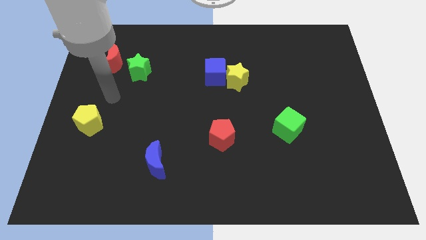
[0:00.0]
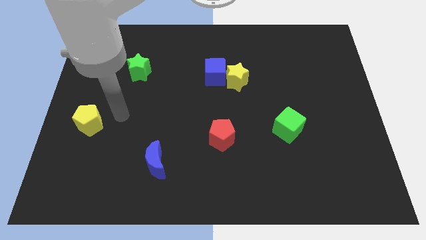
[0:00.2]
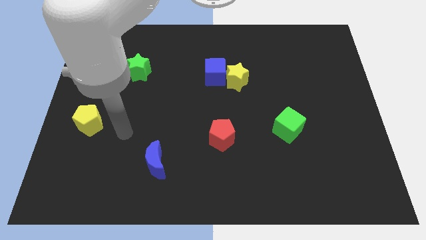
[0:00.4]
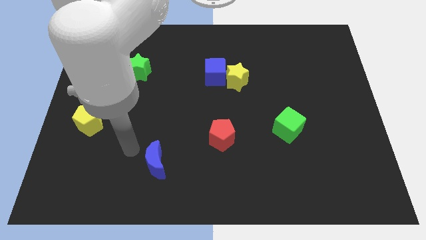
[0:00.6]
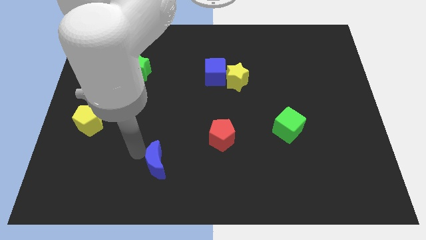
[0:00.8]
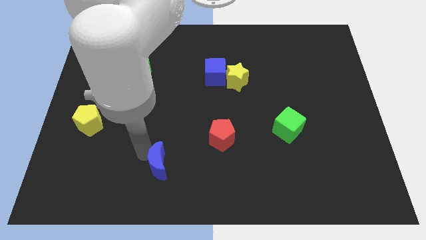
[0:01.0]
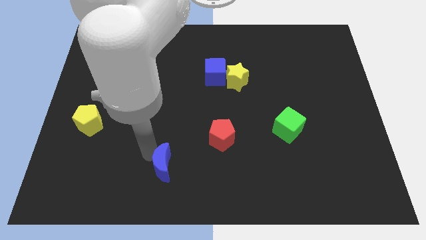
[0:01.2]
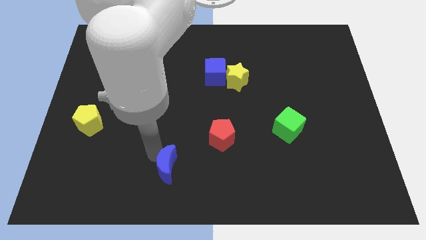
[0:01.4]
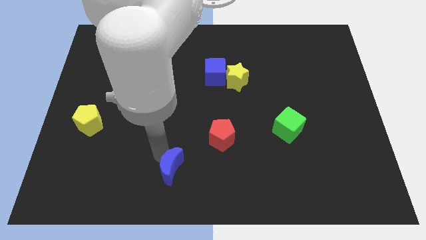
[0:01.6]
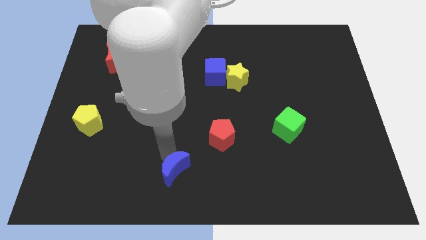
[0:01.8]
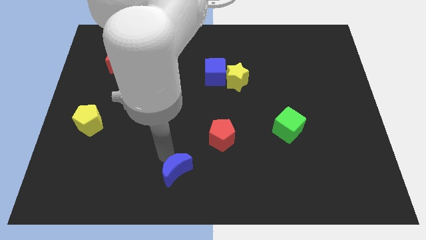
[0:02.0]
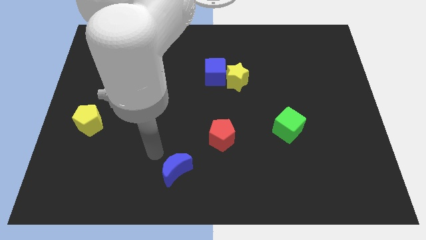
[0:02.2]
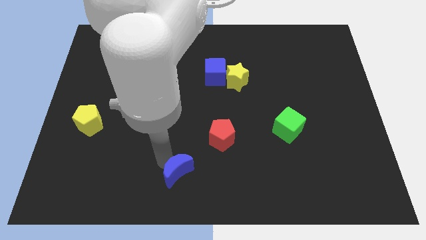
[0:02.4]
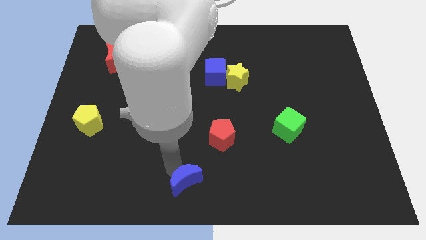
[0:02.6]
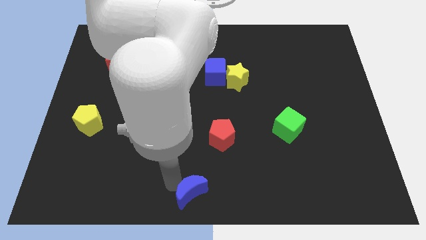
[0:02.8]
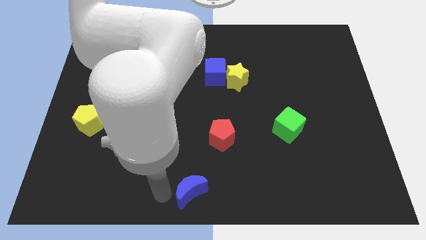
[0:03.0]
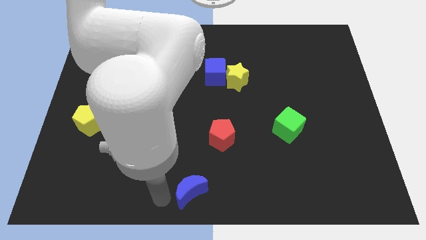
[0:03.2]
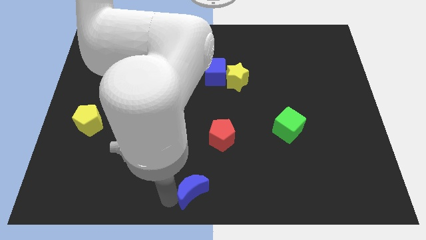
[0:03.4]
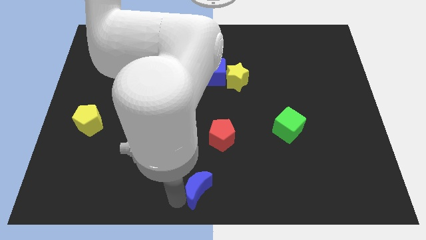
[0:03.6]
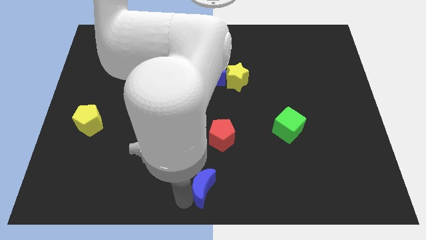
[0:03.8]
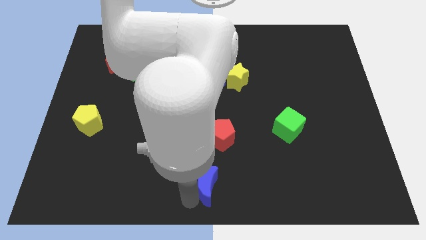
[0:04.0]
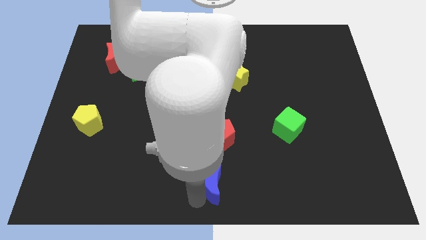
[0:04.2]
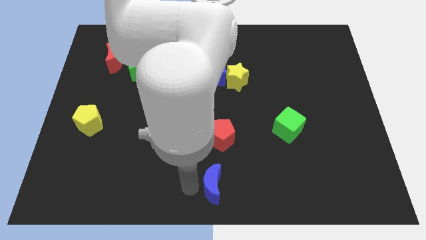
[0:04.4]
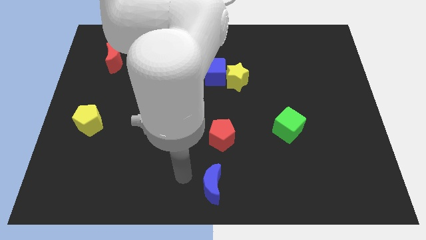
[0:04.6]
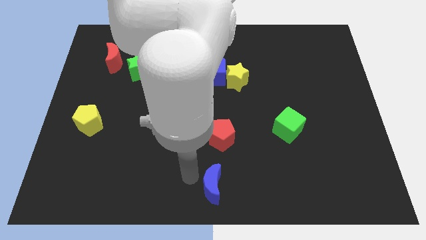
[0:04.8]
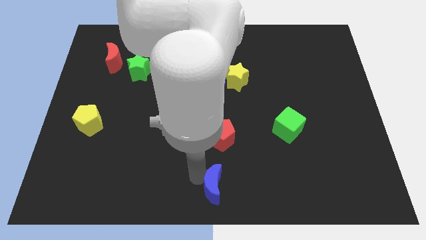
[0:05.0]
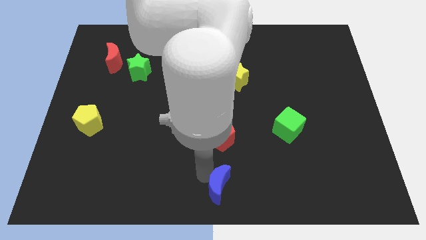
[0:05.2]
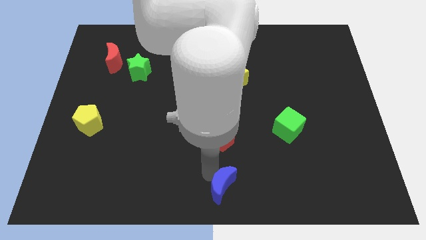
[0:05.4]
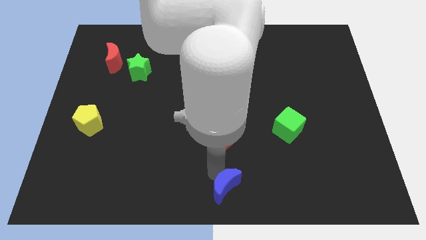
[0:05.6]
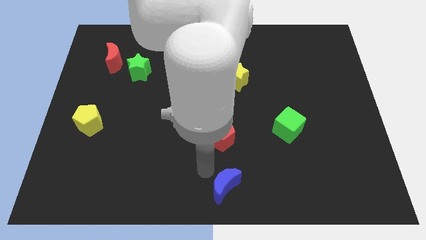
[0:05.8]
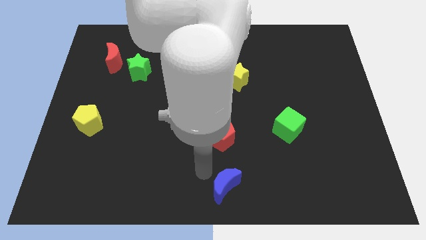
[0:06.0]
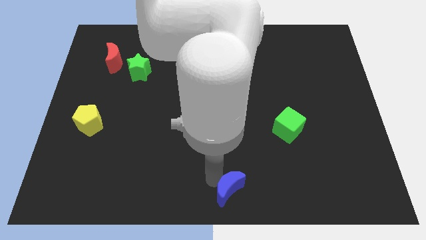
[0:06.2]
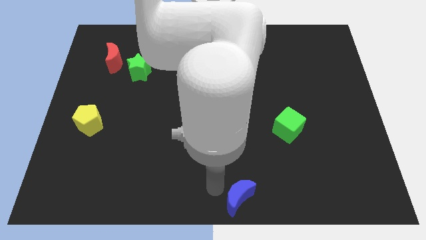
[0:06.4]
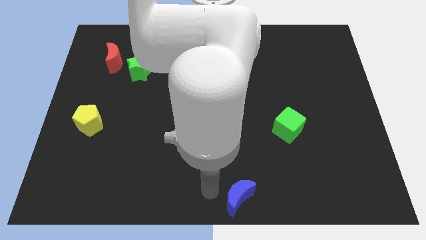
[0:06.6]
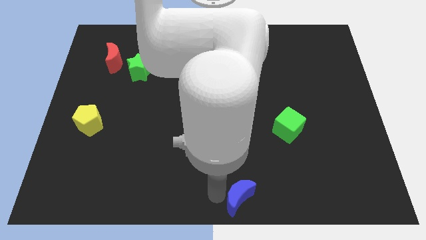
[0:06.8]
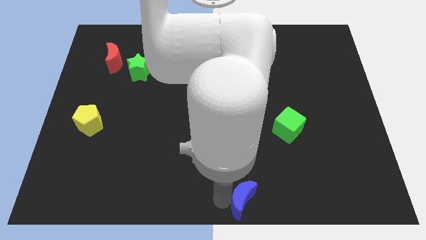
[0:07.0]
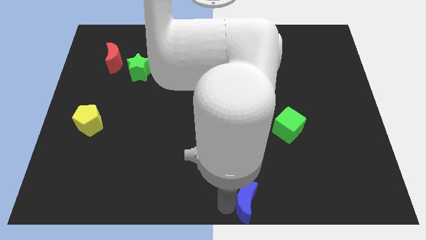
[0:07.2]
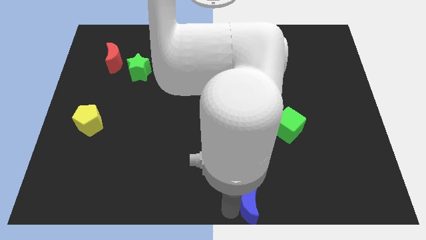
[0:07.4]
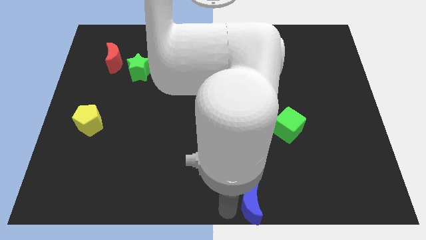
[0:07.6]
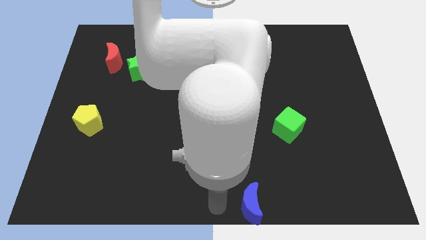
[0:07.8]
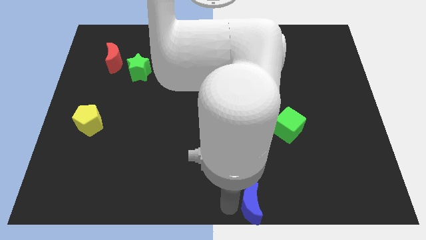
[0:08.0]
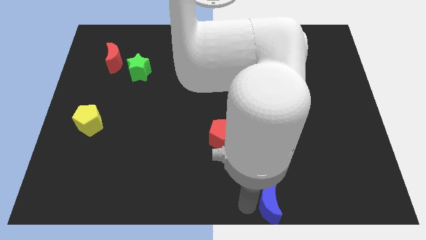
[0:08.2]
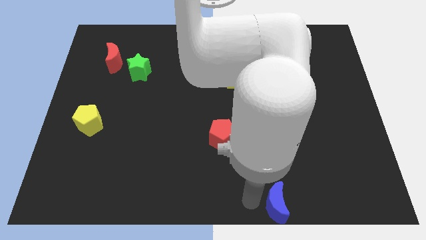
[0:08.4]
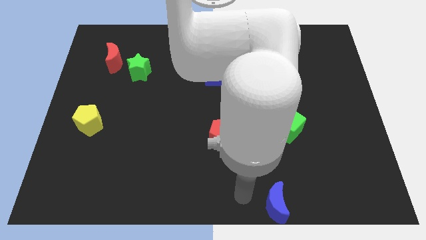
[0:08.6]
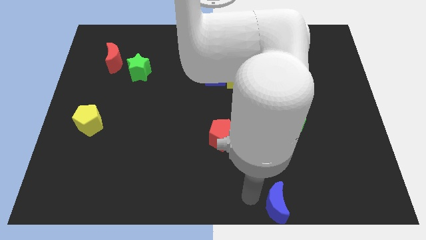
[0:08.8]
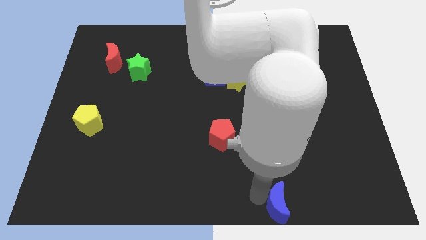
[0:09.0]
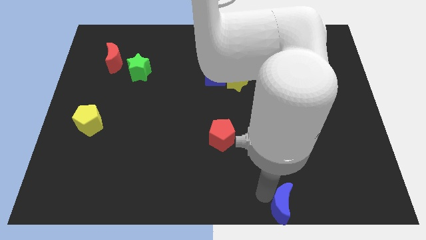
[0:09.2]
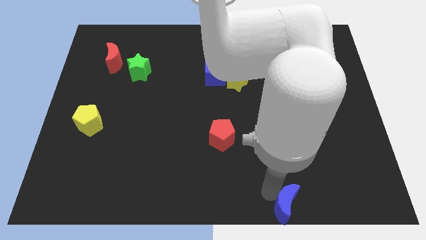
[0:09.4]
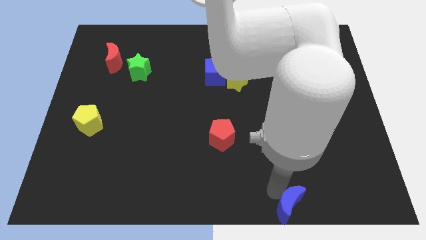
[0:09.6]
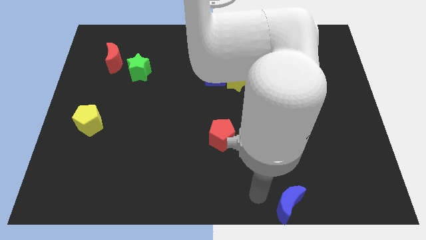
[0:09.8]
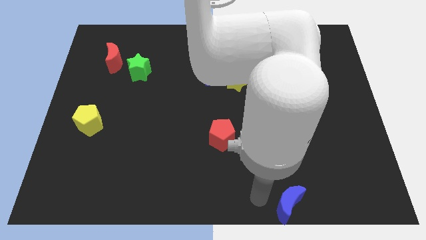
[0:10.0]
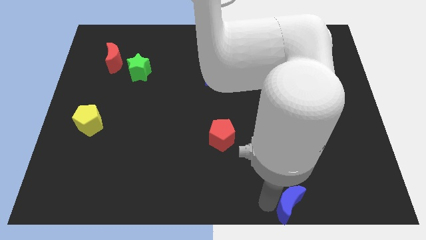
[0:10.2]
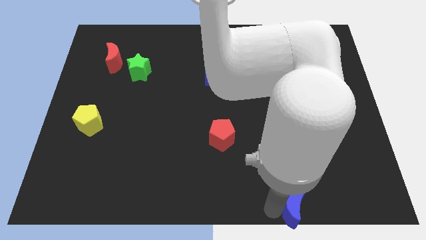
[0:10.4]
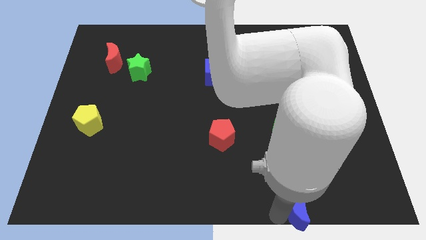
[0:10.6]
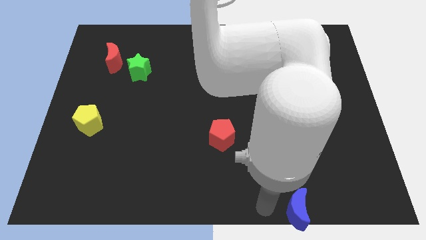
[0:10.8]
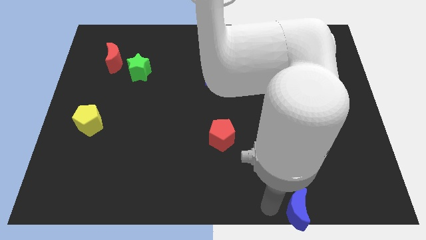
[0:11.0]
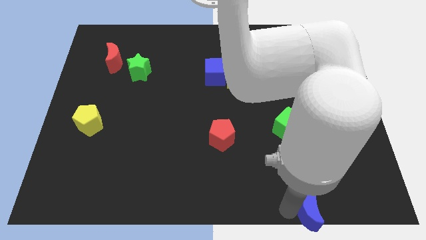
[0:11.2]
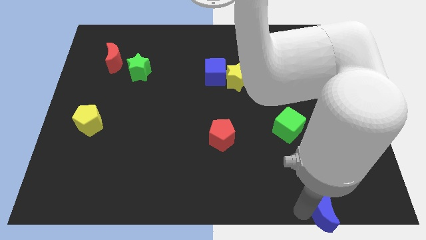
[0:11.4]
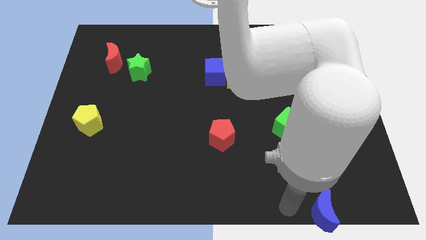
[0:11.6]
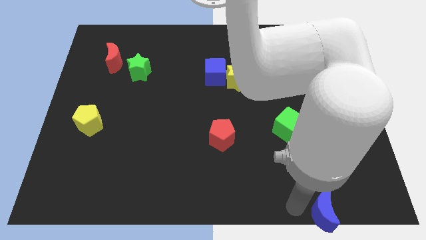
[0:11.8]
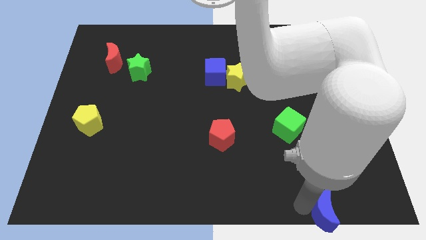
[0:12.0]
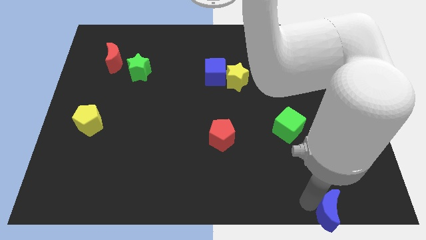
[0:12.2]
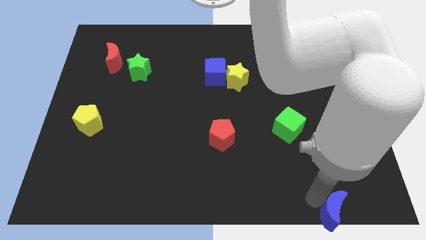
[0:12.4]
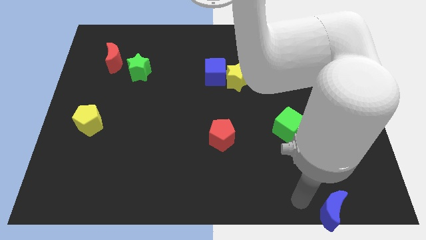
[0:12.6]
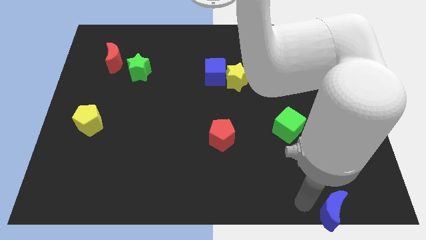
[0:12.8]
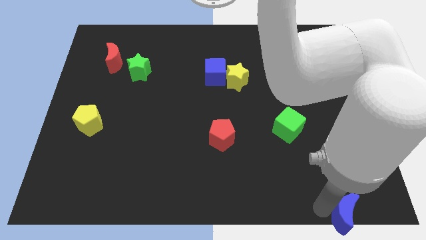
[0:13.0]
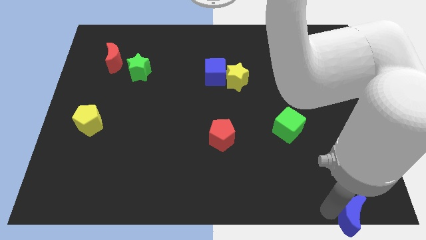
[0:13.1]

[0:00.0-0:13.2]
put the blue moon to the bottom right
